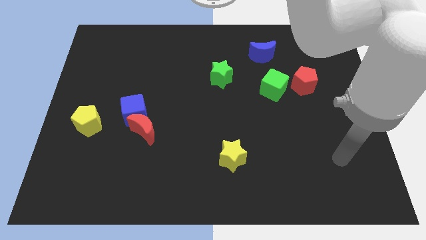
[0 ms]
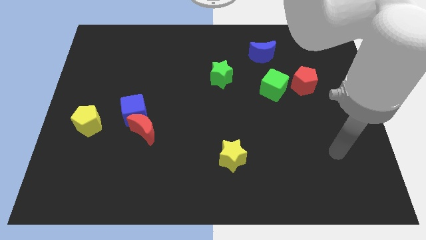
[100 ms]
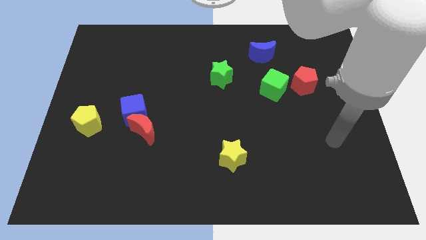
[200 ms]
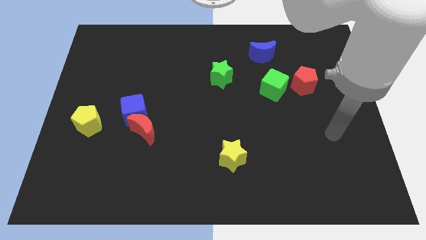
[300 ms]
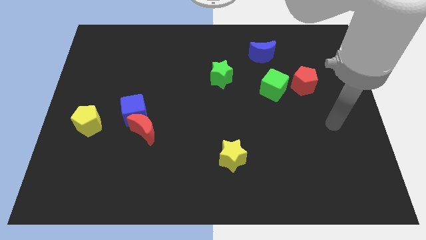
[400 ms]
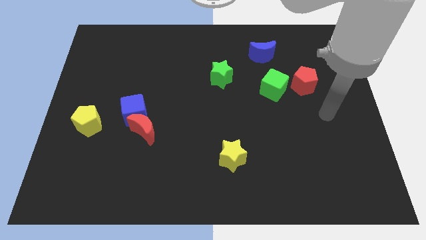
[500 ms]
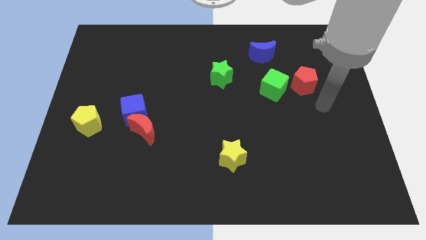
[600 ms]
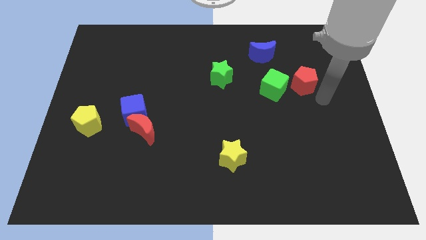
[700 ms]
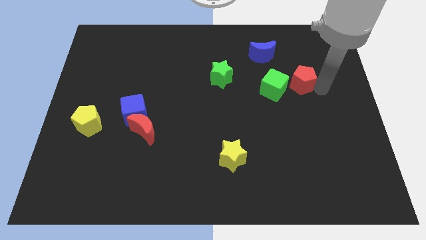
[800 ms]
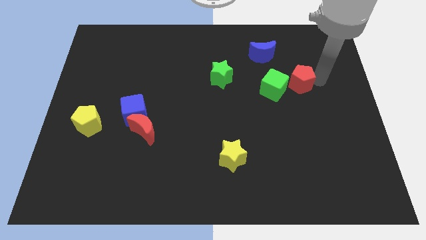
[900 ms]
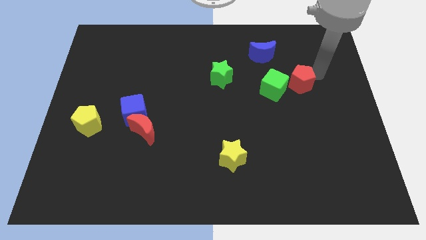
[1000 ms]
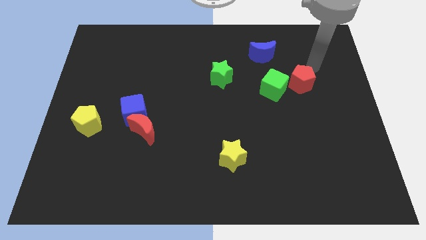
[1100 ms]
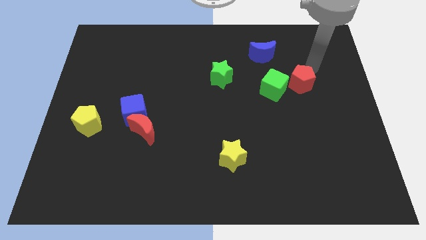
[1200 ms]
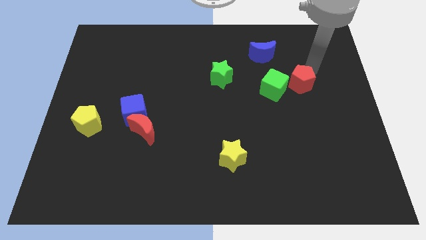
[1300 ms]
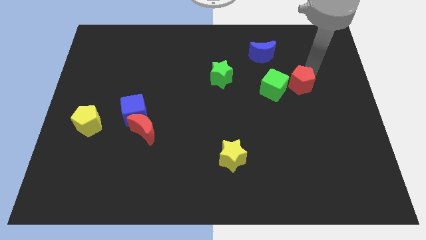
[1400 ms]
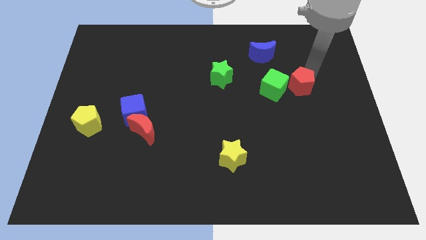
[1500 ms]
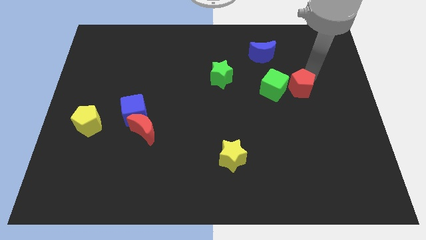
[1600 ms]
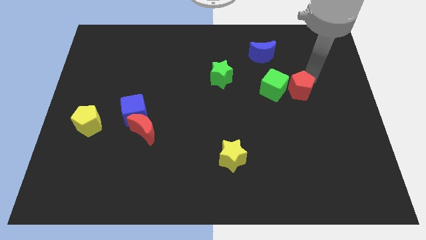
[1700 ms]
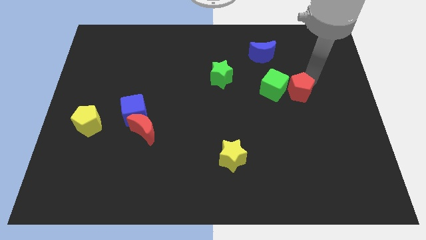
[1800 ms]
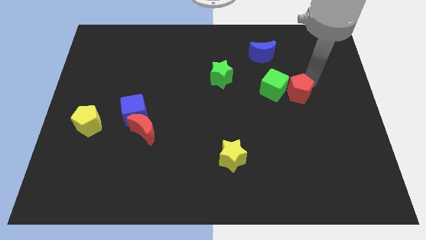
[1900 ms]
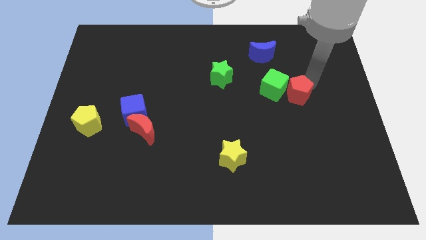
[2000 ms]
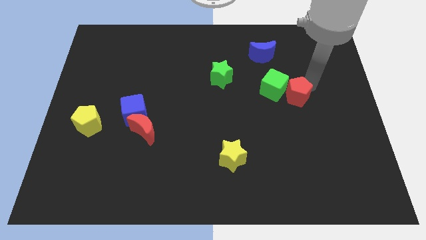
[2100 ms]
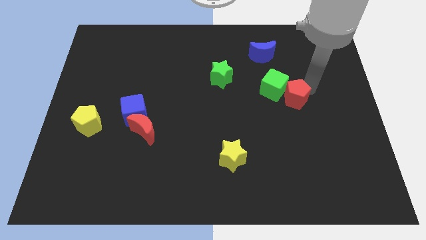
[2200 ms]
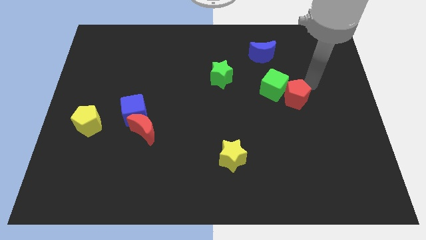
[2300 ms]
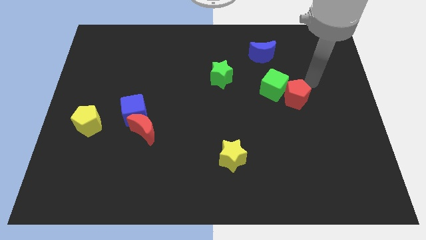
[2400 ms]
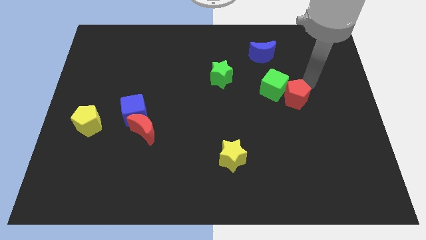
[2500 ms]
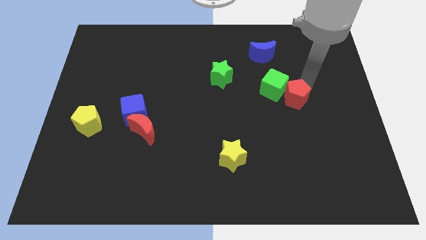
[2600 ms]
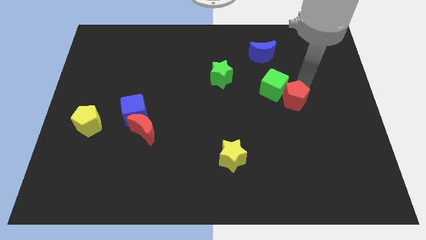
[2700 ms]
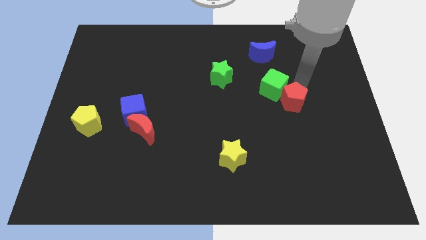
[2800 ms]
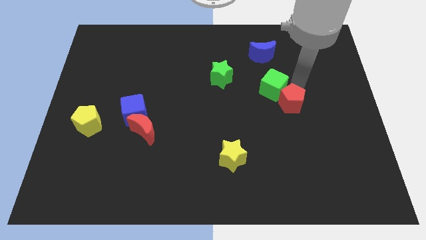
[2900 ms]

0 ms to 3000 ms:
push the red pentagon down and left diagonally a little

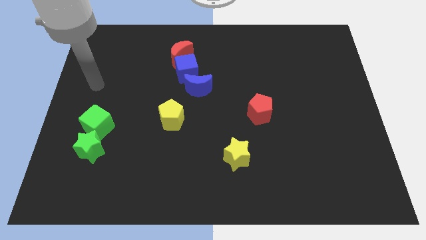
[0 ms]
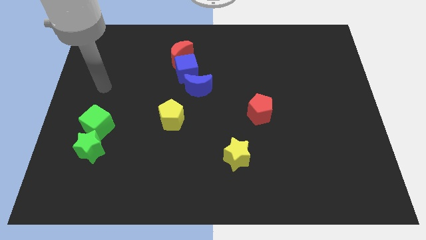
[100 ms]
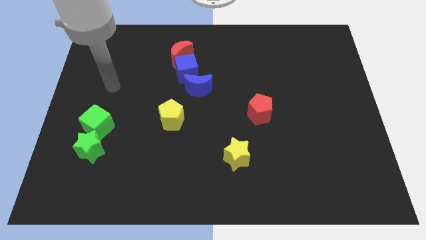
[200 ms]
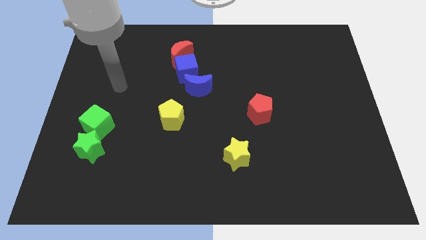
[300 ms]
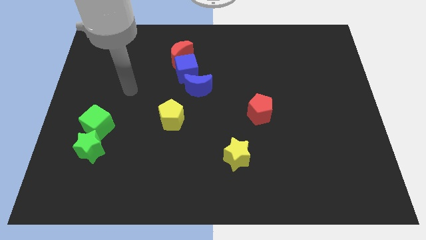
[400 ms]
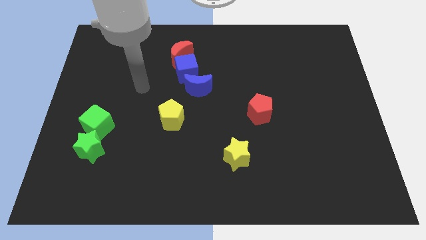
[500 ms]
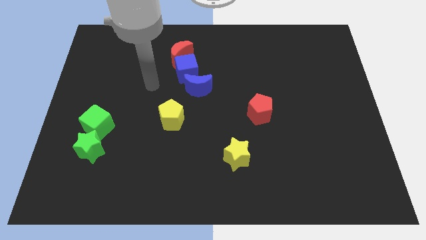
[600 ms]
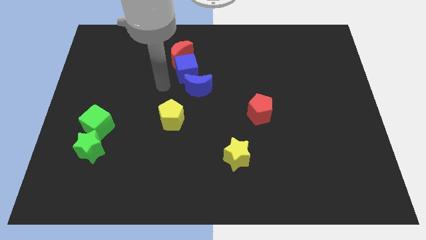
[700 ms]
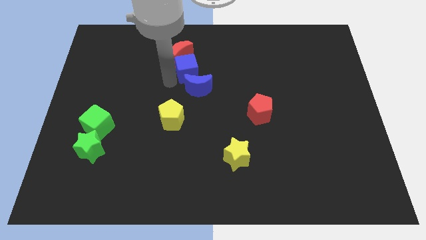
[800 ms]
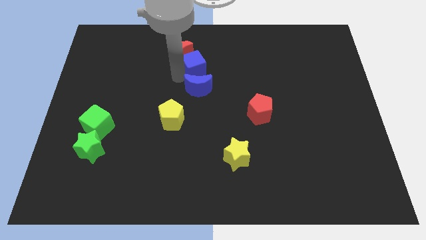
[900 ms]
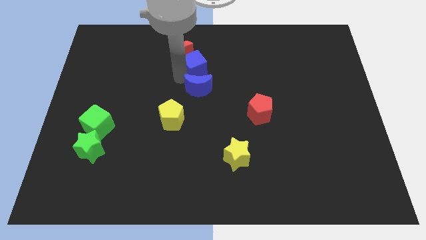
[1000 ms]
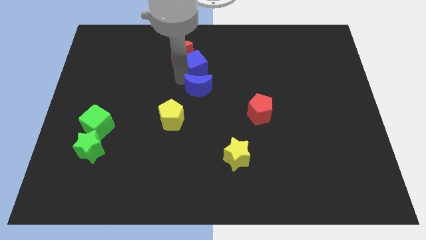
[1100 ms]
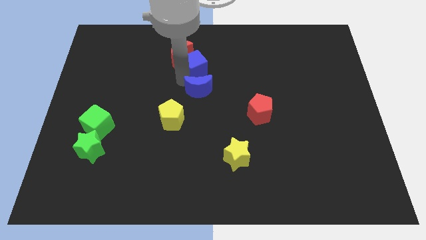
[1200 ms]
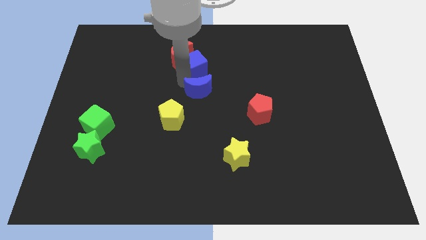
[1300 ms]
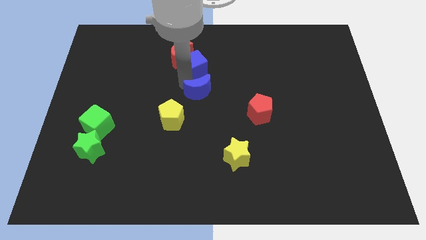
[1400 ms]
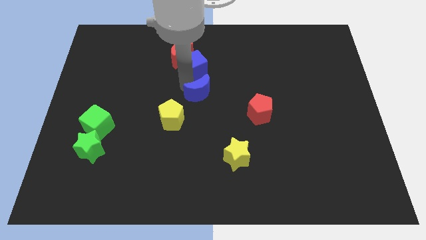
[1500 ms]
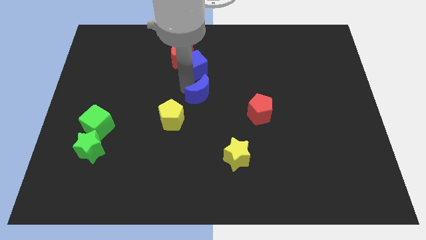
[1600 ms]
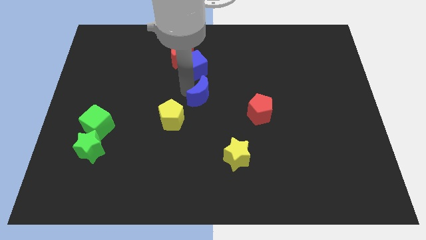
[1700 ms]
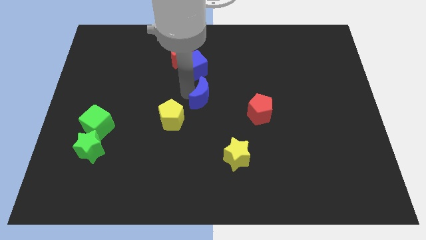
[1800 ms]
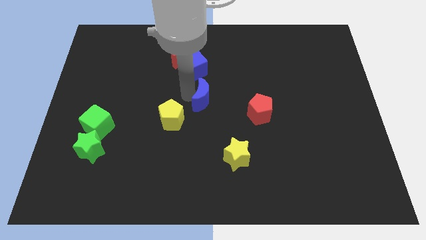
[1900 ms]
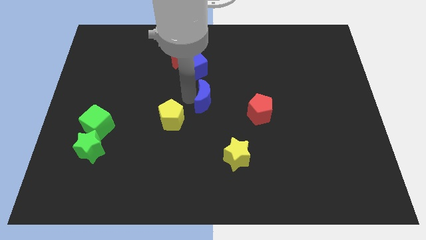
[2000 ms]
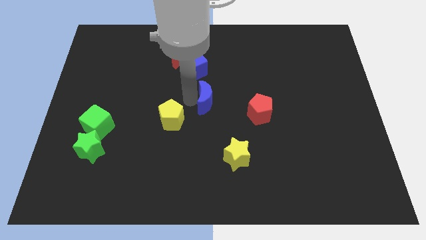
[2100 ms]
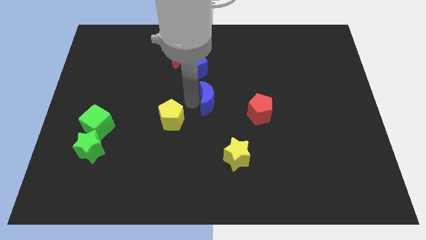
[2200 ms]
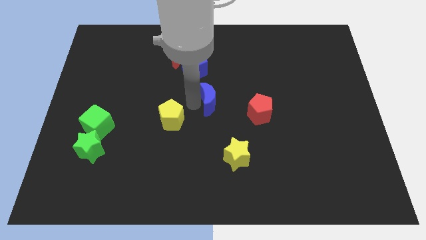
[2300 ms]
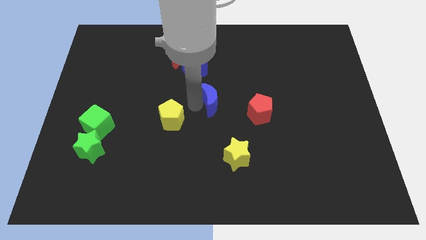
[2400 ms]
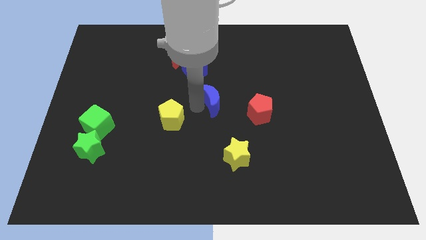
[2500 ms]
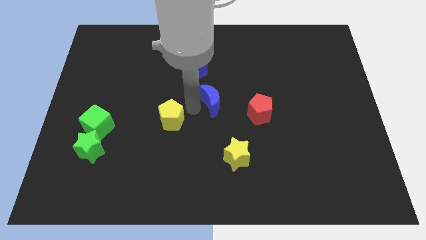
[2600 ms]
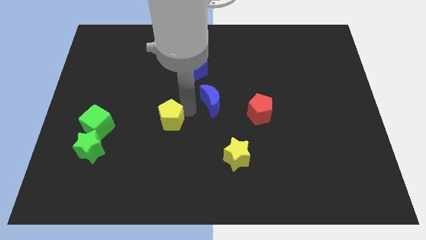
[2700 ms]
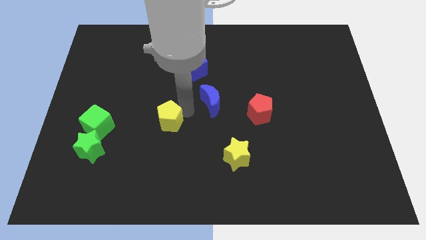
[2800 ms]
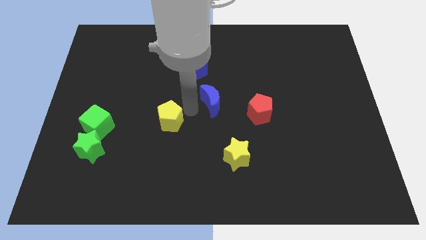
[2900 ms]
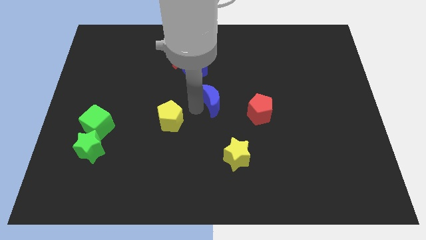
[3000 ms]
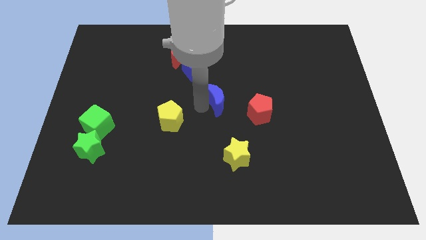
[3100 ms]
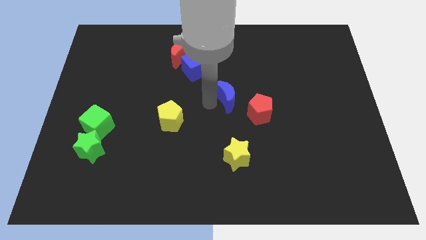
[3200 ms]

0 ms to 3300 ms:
move the blue moon a little bit to the right

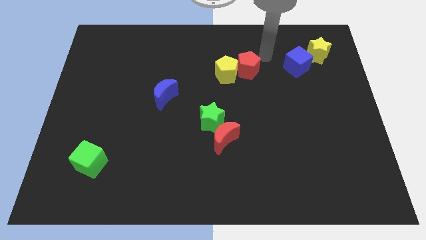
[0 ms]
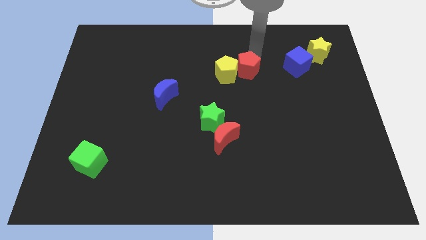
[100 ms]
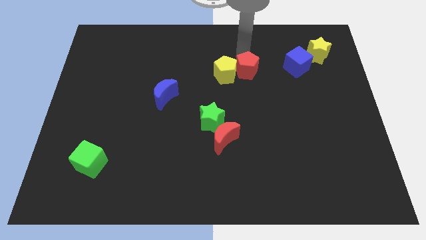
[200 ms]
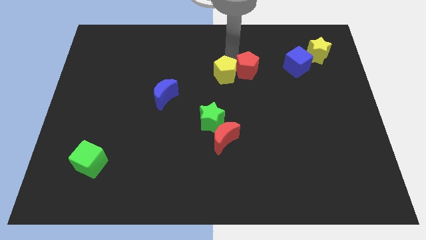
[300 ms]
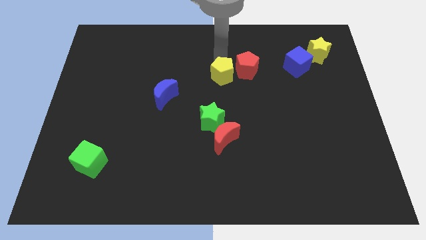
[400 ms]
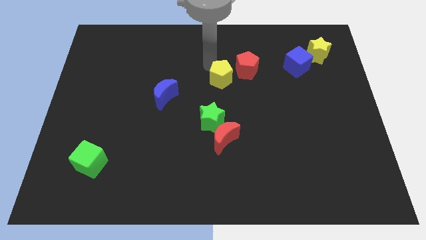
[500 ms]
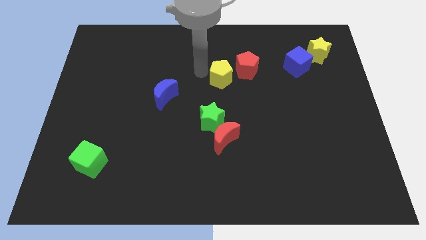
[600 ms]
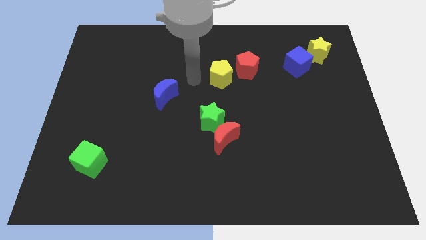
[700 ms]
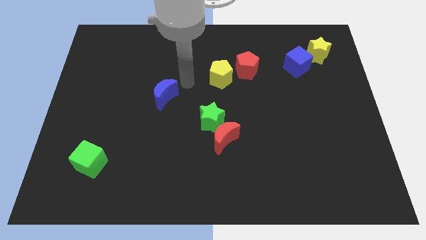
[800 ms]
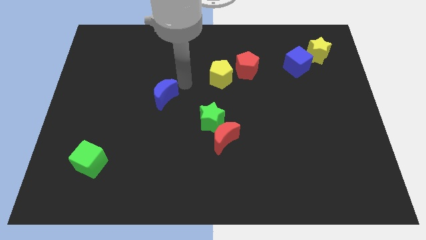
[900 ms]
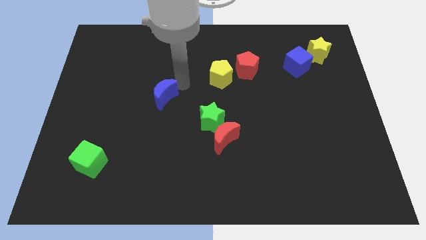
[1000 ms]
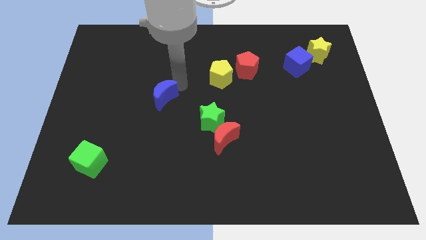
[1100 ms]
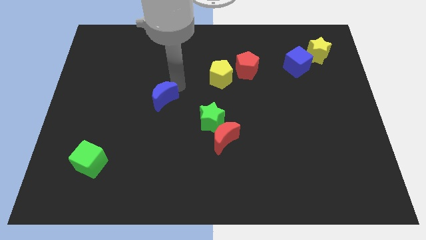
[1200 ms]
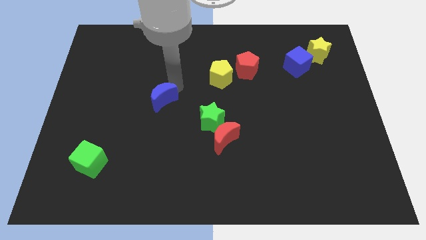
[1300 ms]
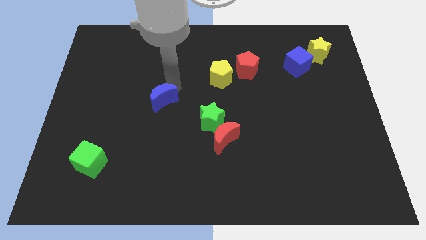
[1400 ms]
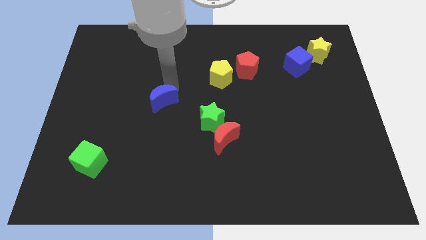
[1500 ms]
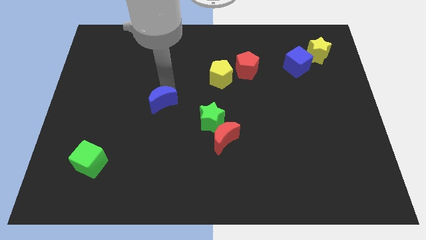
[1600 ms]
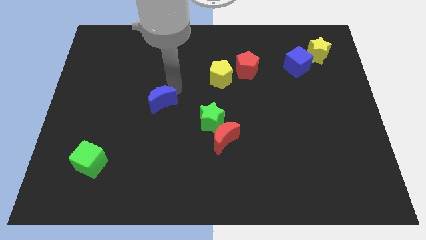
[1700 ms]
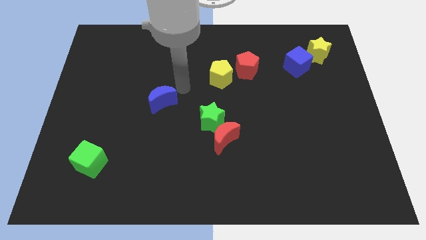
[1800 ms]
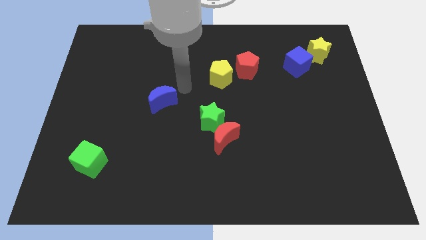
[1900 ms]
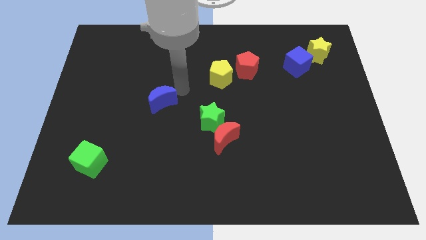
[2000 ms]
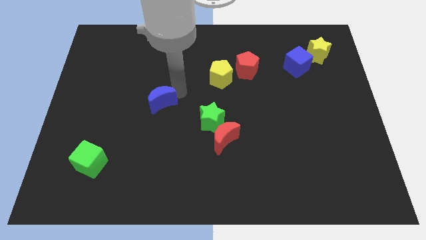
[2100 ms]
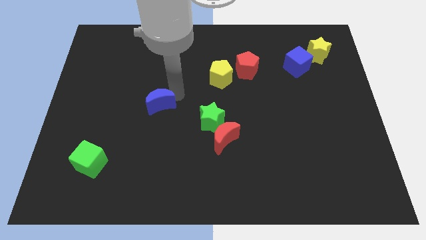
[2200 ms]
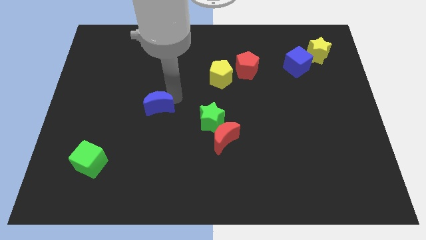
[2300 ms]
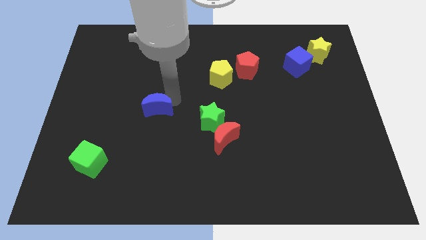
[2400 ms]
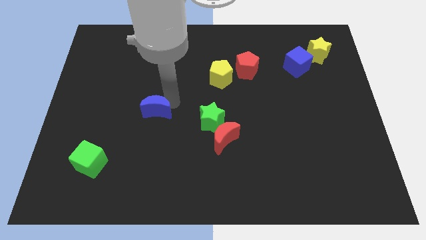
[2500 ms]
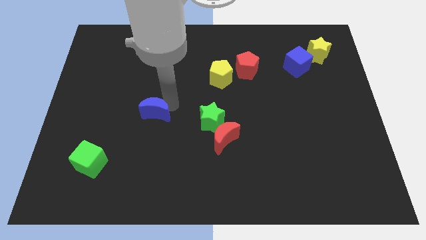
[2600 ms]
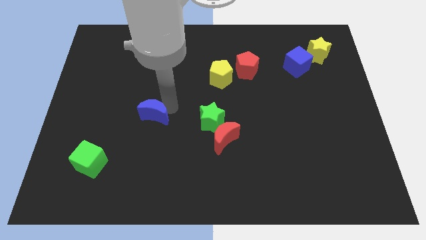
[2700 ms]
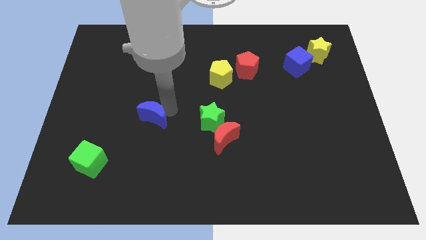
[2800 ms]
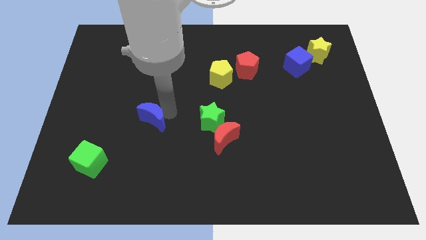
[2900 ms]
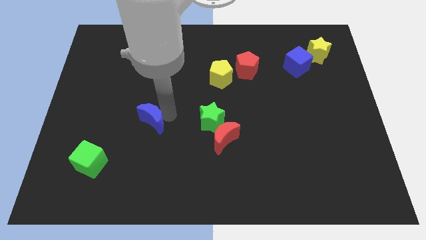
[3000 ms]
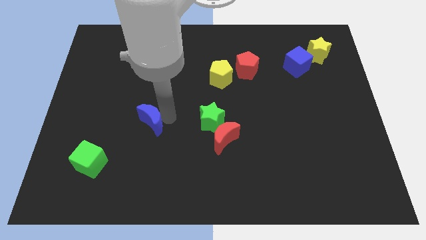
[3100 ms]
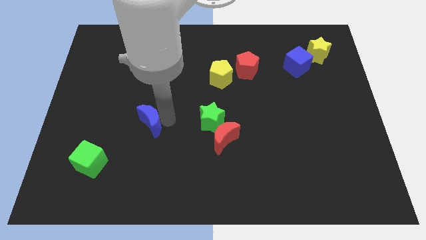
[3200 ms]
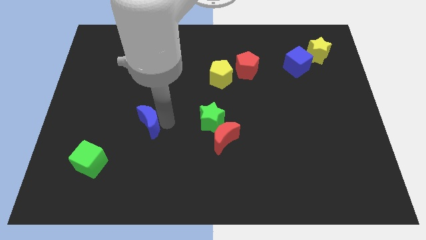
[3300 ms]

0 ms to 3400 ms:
slightly slide the blue moon downwards and left diagonally
